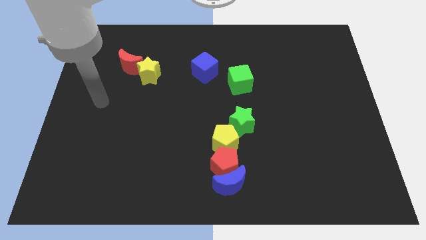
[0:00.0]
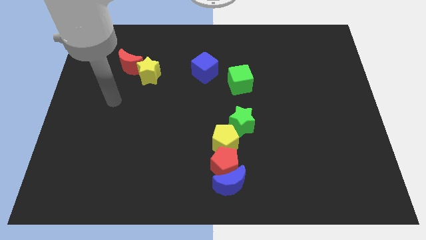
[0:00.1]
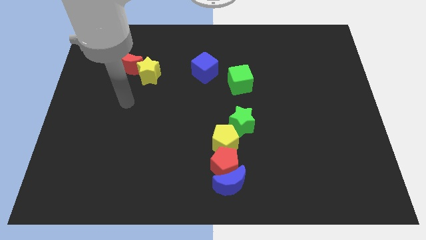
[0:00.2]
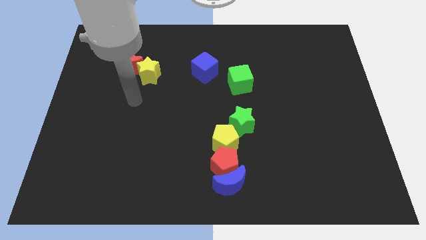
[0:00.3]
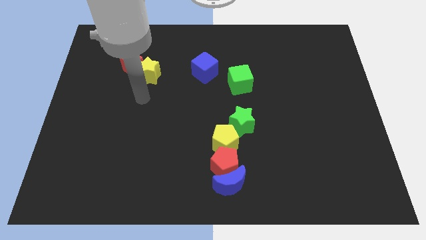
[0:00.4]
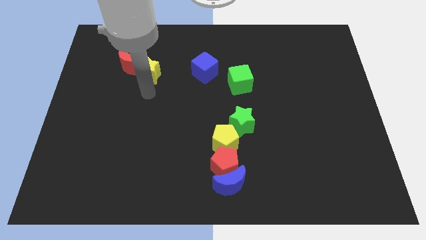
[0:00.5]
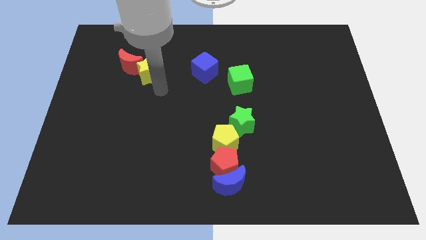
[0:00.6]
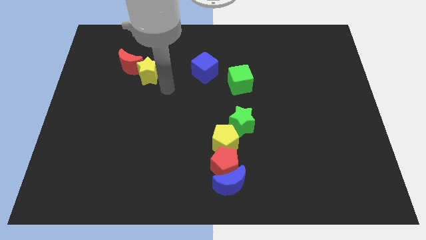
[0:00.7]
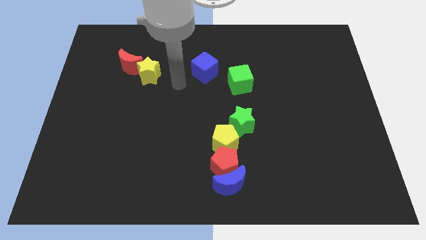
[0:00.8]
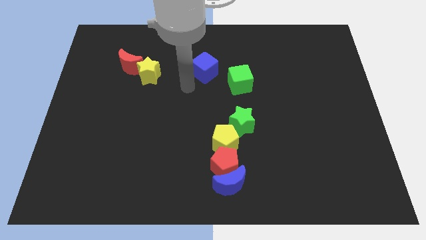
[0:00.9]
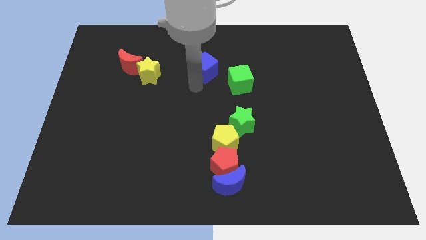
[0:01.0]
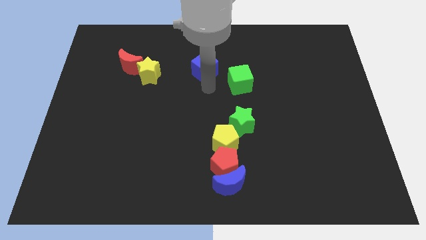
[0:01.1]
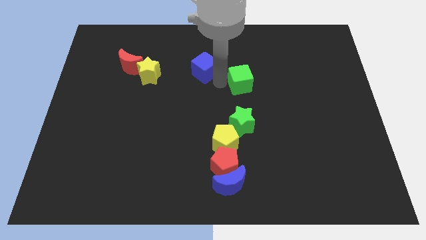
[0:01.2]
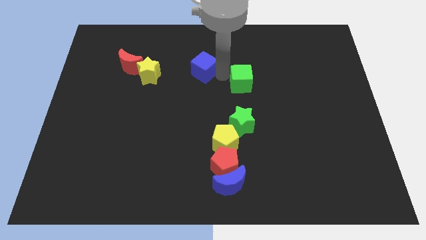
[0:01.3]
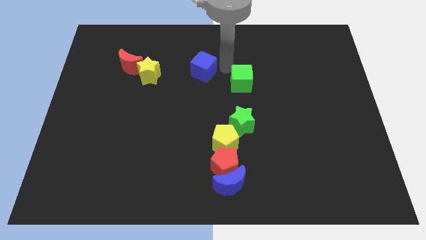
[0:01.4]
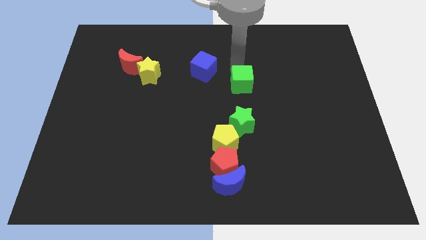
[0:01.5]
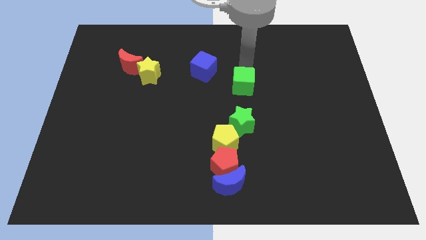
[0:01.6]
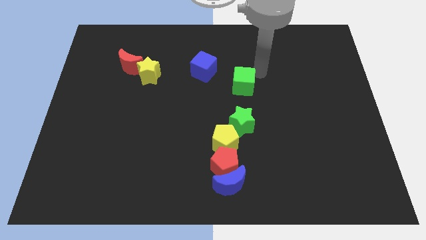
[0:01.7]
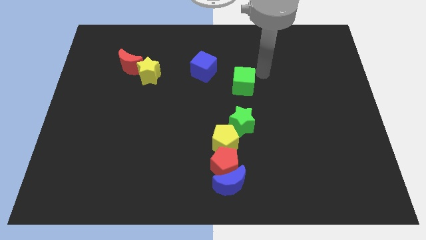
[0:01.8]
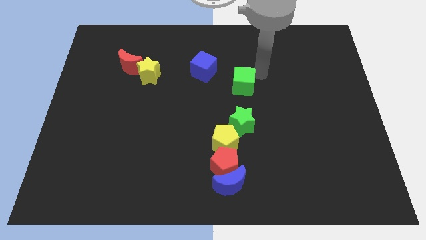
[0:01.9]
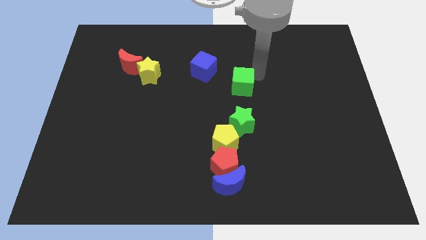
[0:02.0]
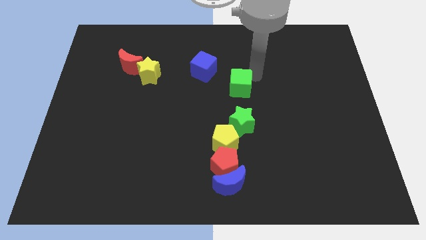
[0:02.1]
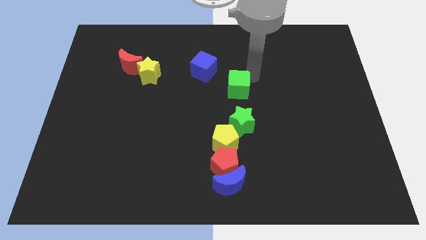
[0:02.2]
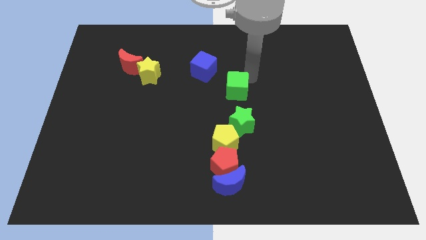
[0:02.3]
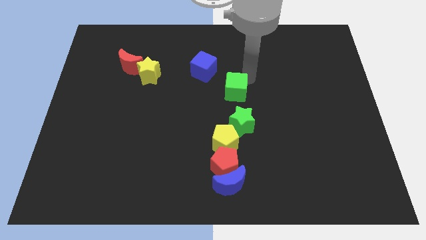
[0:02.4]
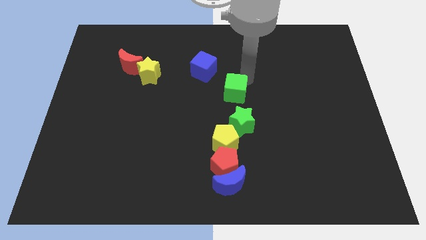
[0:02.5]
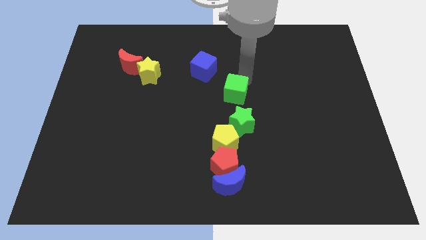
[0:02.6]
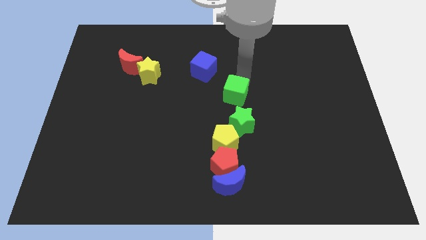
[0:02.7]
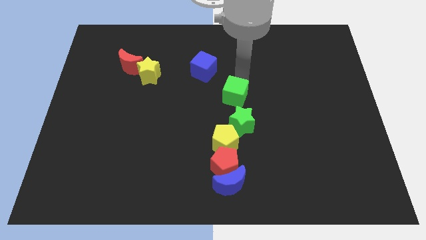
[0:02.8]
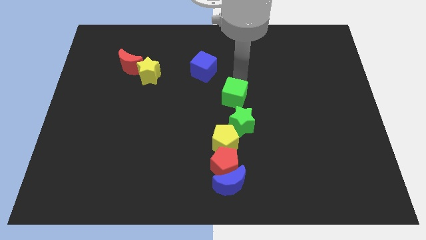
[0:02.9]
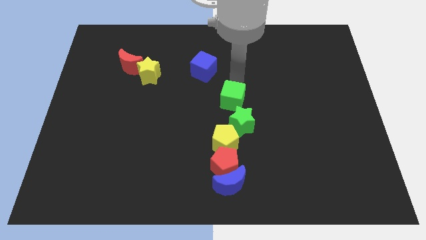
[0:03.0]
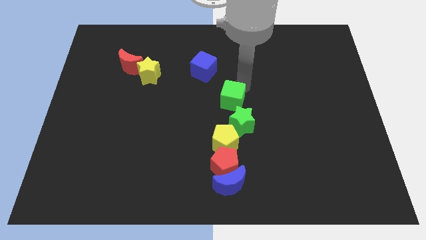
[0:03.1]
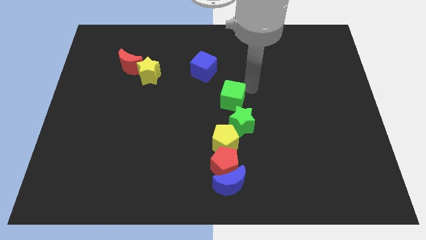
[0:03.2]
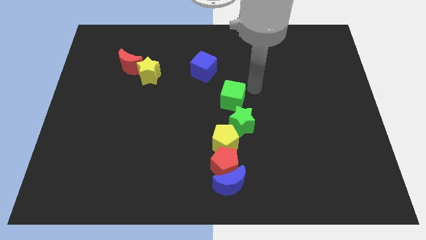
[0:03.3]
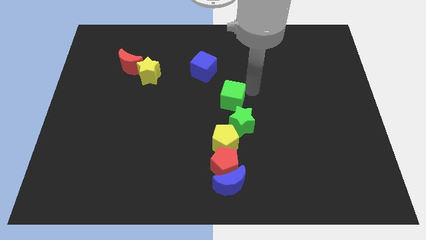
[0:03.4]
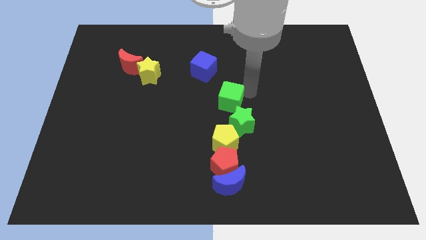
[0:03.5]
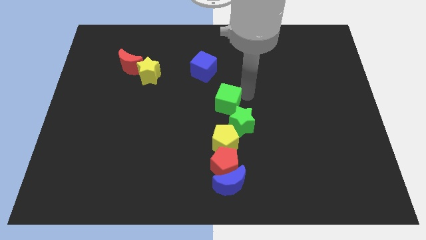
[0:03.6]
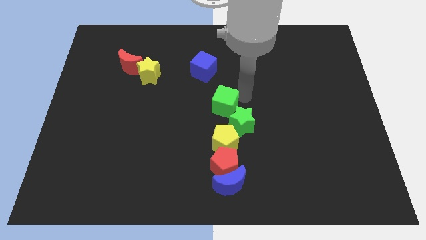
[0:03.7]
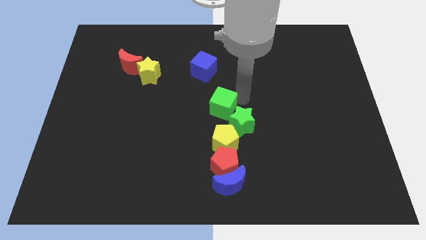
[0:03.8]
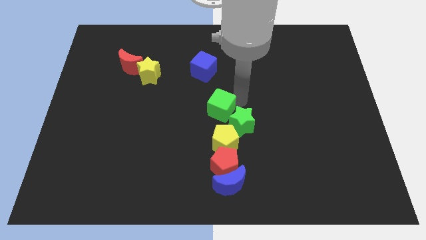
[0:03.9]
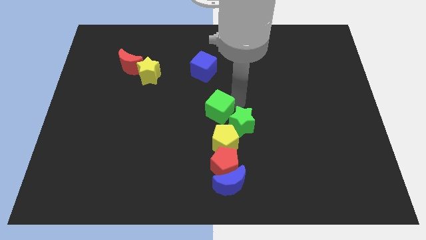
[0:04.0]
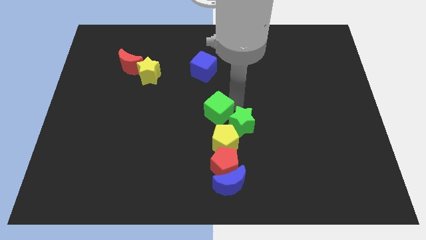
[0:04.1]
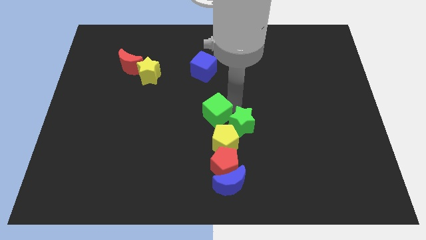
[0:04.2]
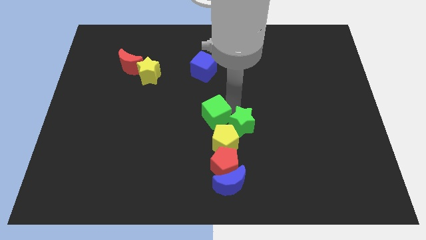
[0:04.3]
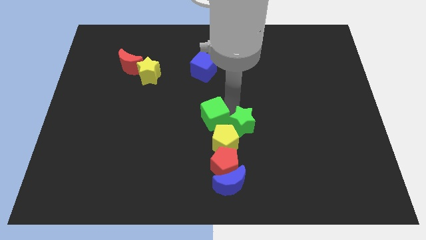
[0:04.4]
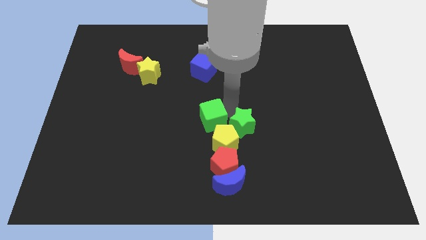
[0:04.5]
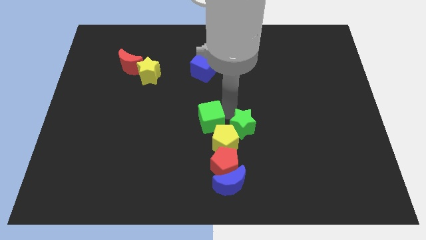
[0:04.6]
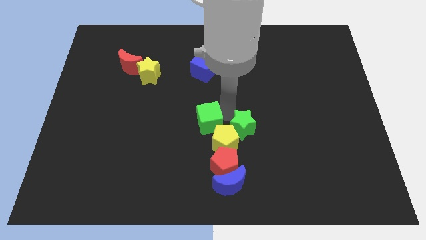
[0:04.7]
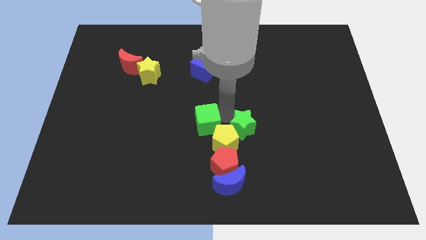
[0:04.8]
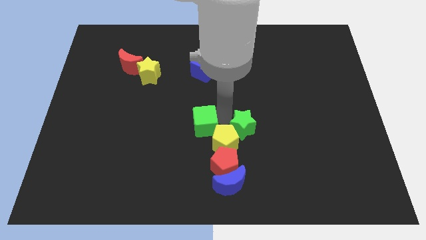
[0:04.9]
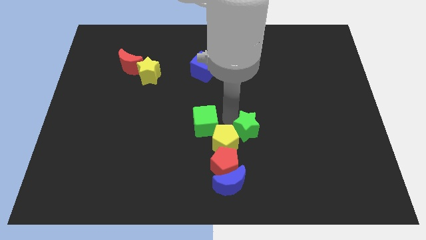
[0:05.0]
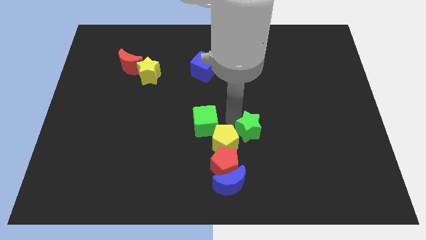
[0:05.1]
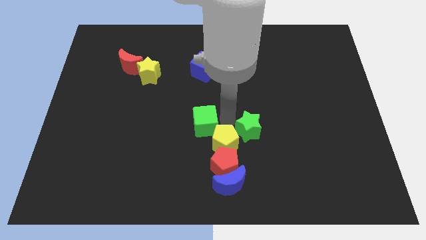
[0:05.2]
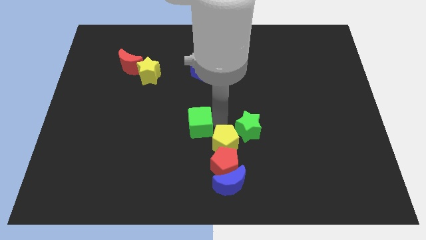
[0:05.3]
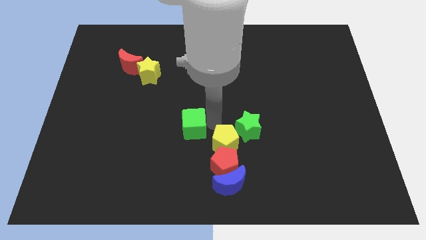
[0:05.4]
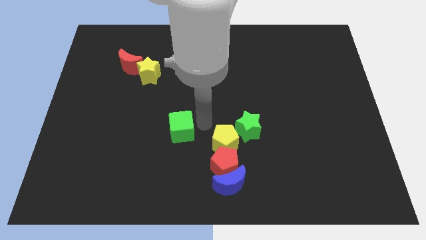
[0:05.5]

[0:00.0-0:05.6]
push the green cube down and to the left diagonally

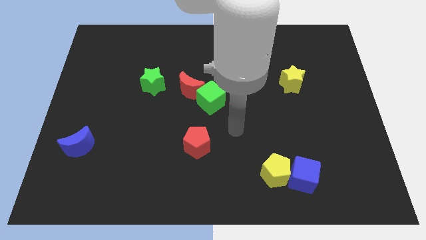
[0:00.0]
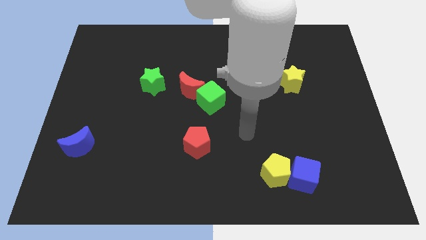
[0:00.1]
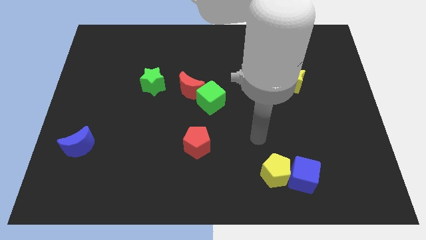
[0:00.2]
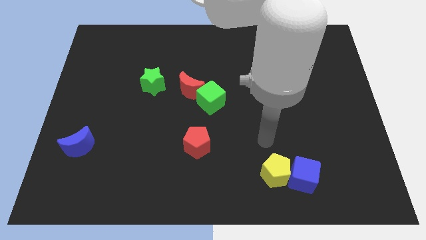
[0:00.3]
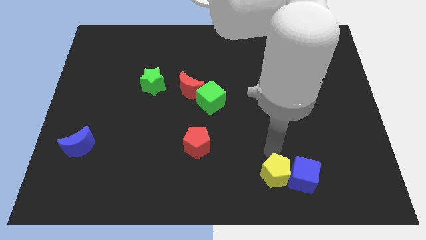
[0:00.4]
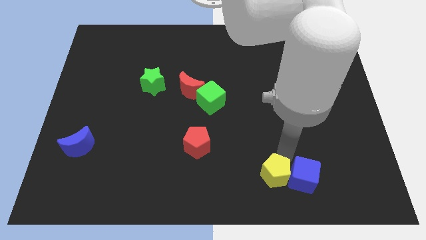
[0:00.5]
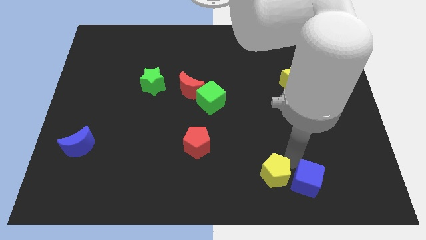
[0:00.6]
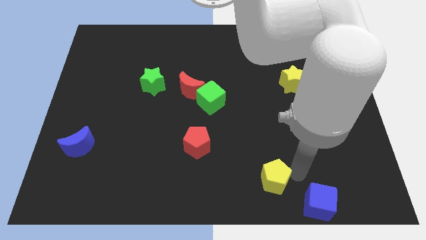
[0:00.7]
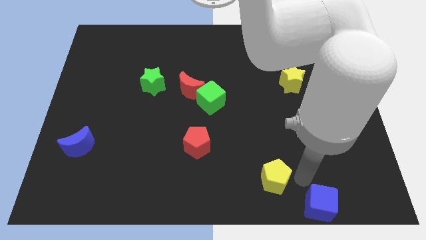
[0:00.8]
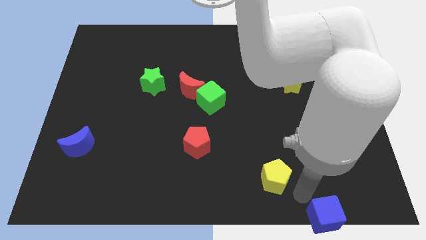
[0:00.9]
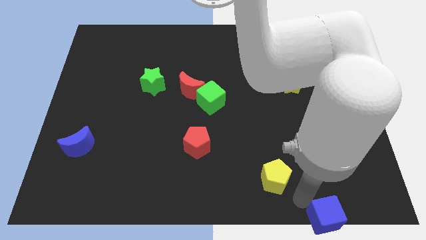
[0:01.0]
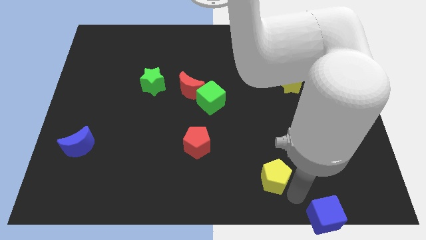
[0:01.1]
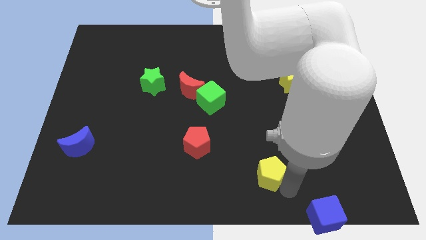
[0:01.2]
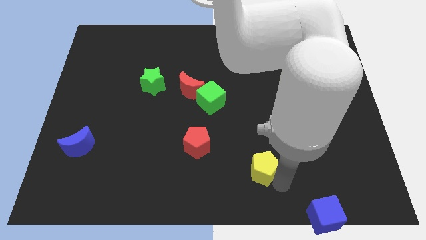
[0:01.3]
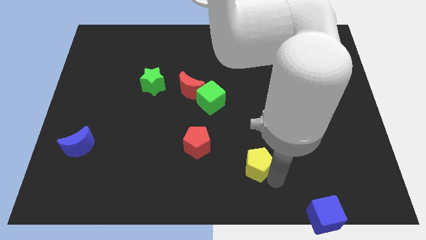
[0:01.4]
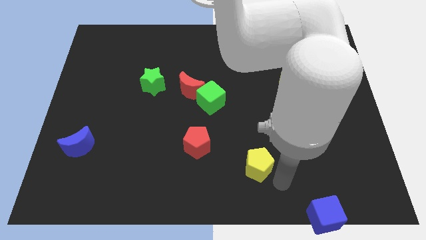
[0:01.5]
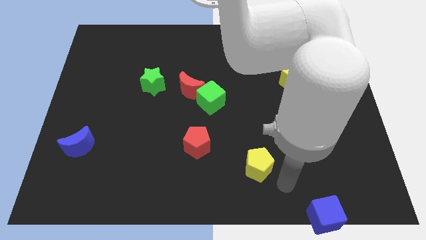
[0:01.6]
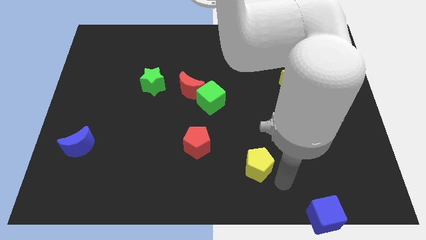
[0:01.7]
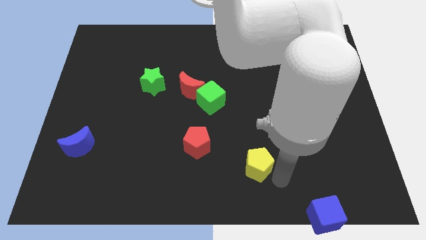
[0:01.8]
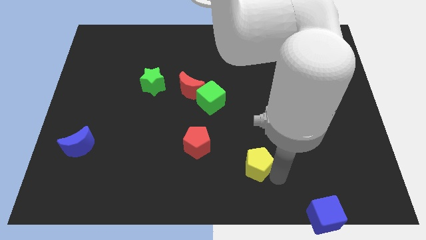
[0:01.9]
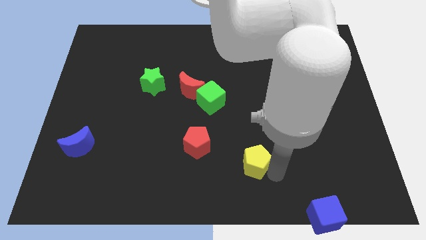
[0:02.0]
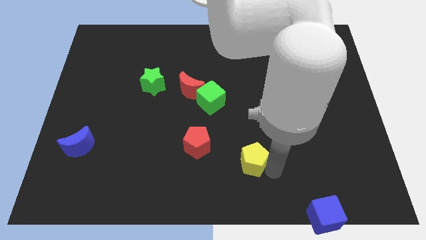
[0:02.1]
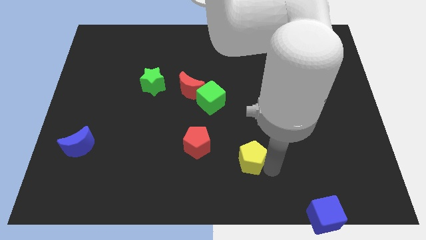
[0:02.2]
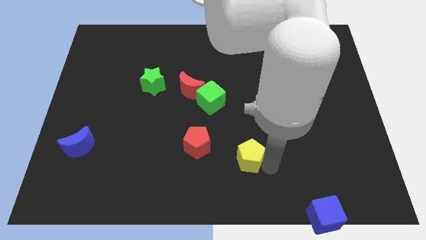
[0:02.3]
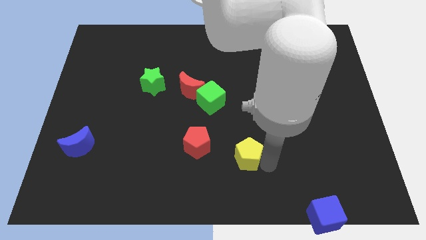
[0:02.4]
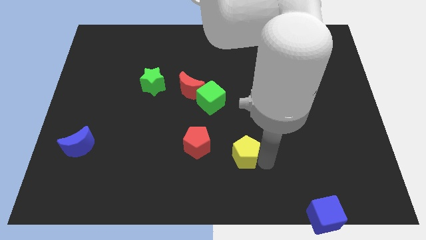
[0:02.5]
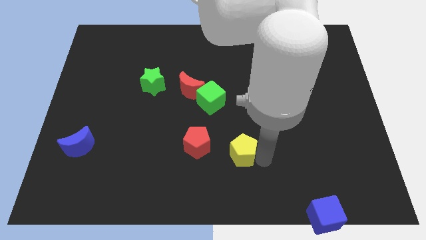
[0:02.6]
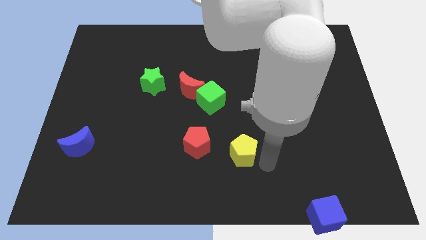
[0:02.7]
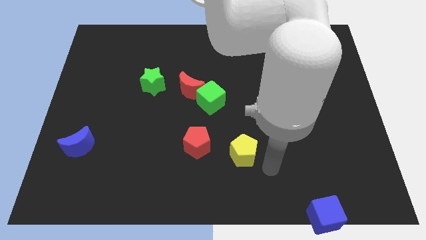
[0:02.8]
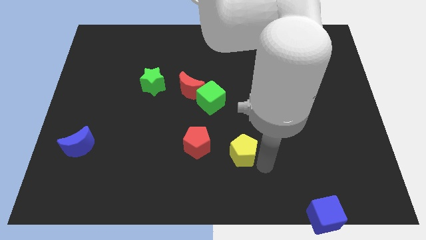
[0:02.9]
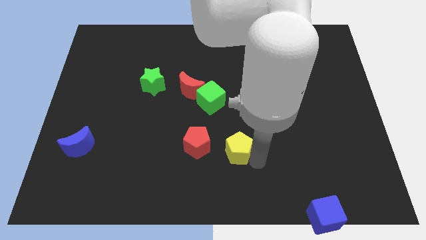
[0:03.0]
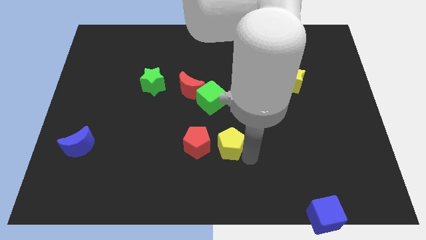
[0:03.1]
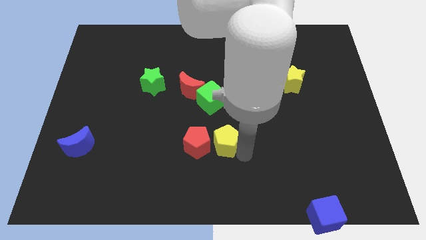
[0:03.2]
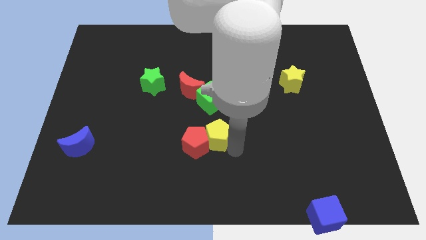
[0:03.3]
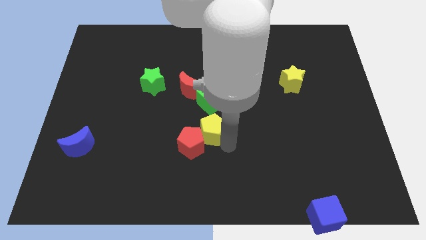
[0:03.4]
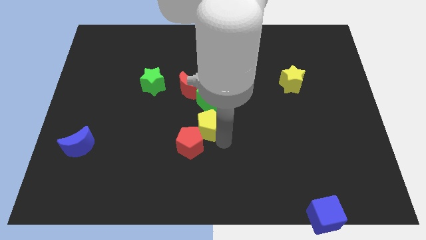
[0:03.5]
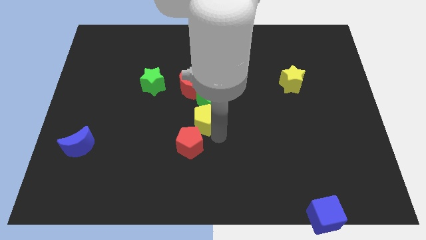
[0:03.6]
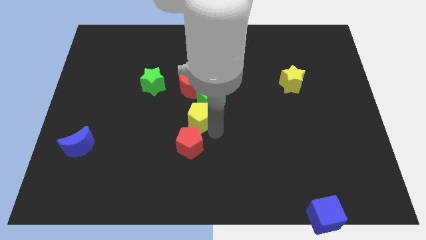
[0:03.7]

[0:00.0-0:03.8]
slide the yellow pentagon upwards and left
